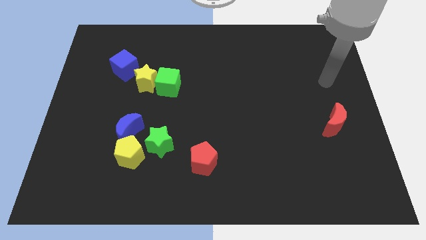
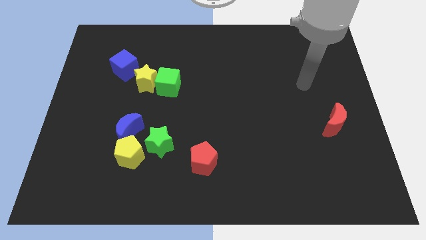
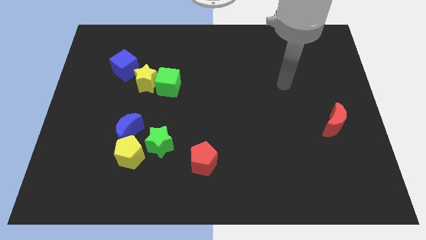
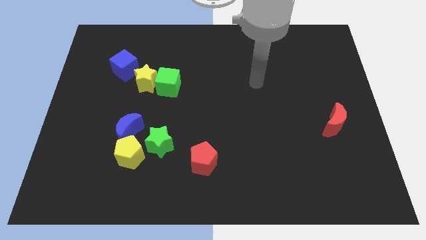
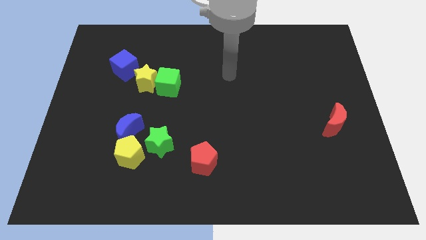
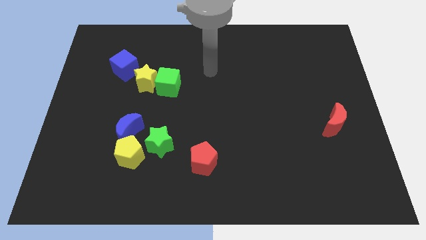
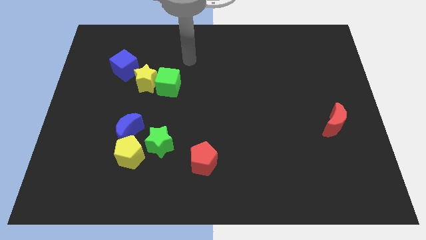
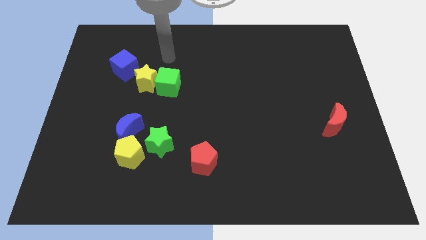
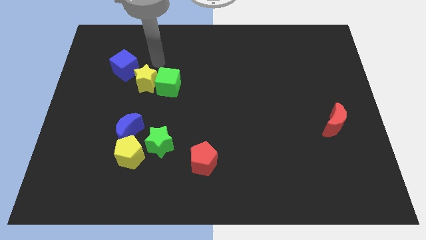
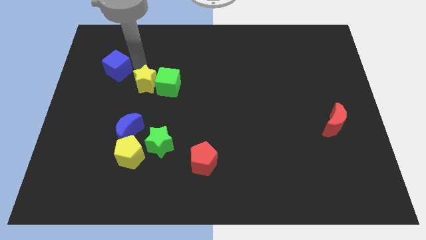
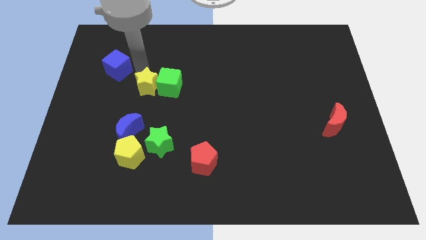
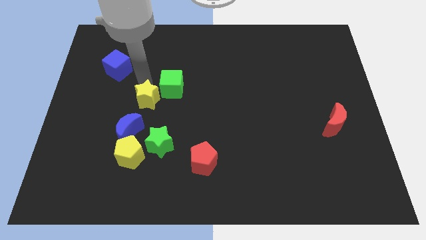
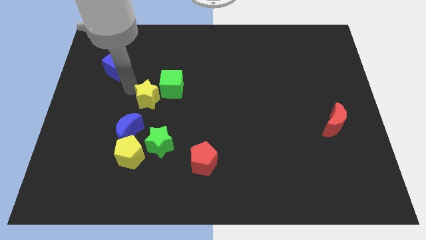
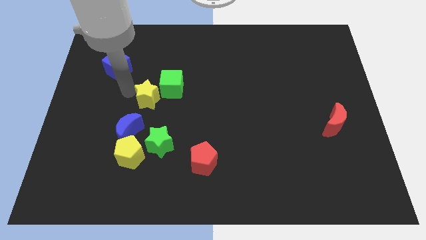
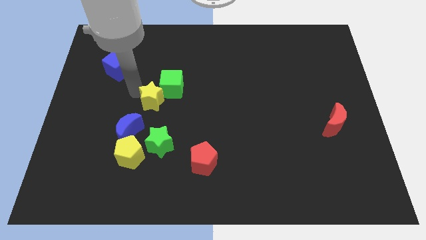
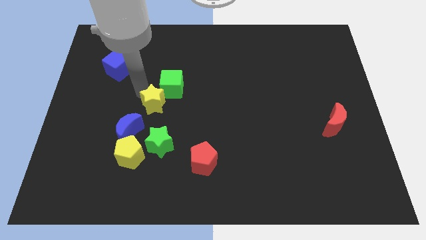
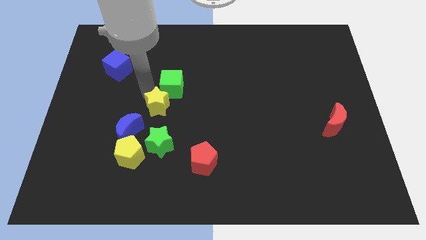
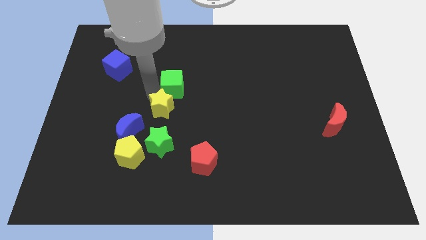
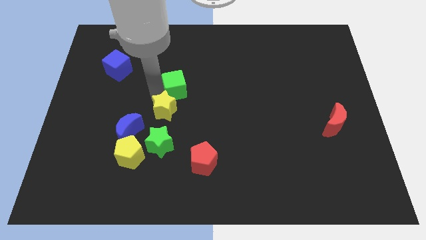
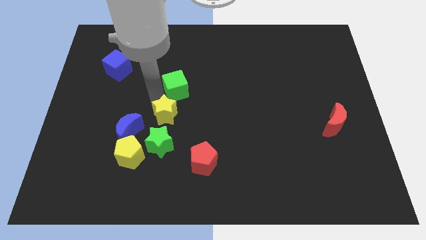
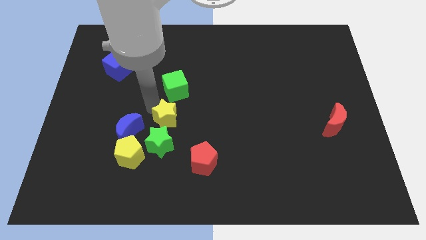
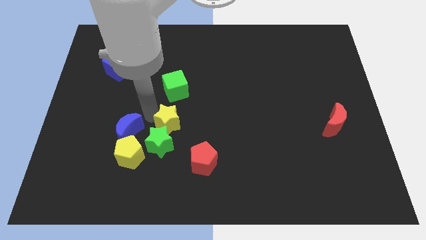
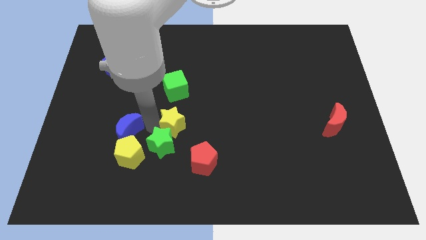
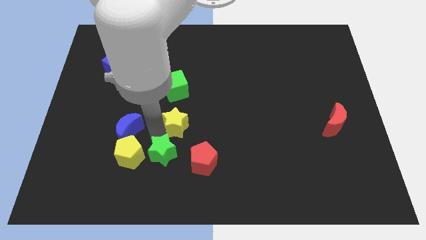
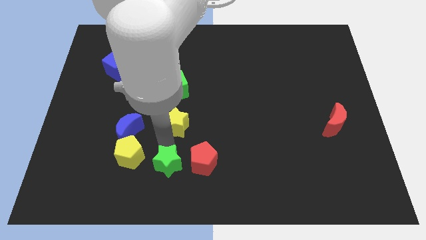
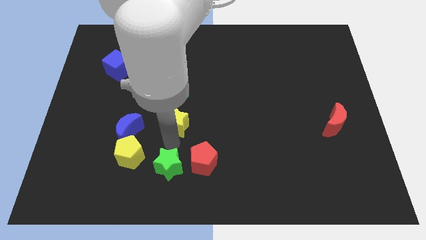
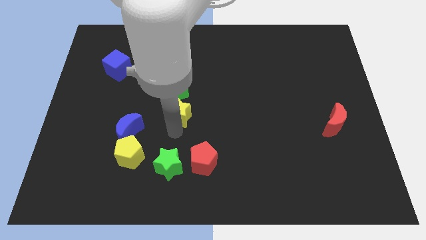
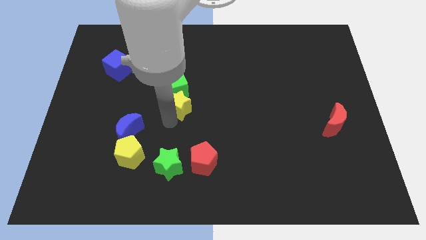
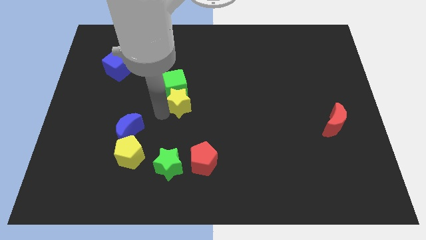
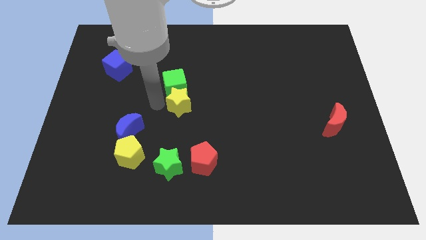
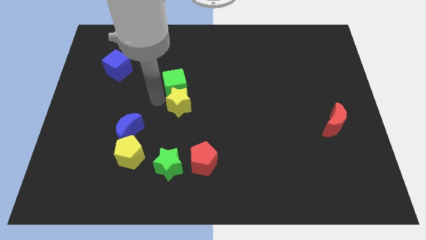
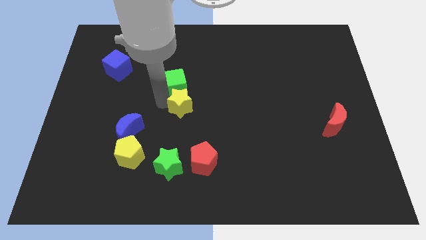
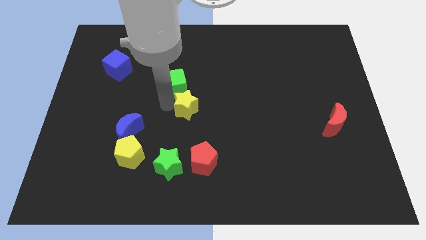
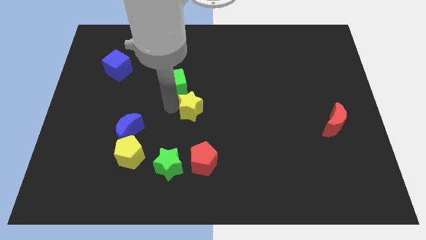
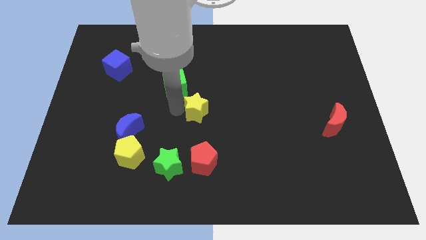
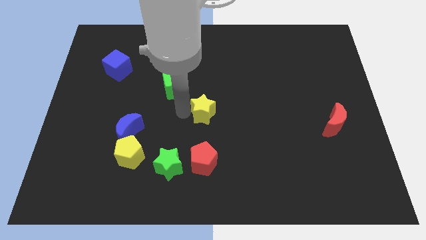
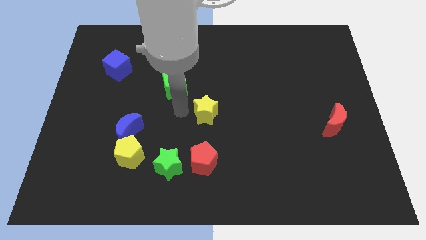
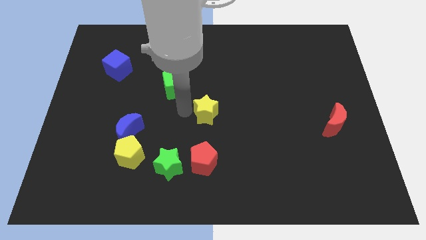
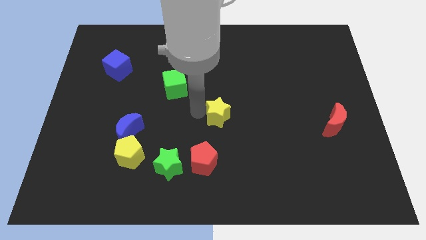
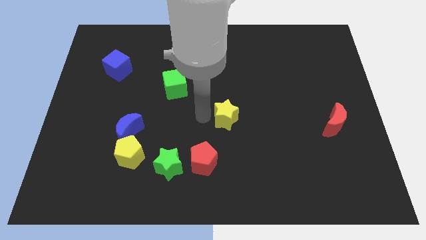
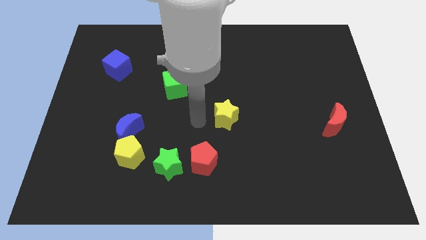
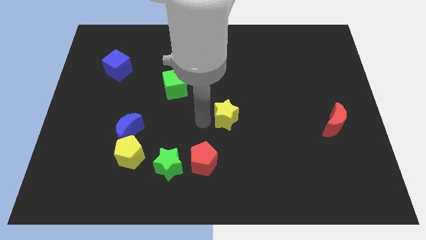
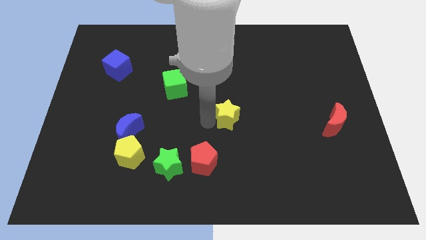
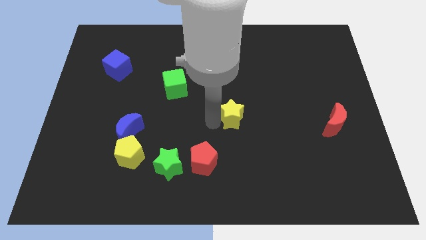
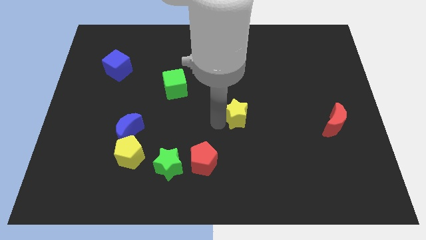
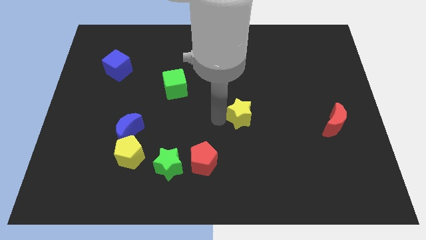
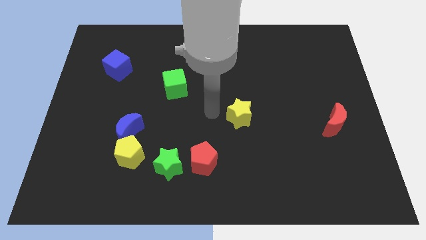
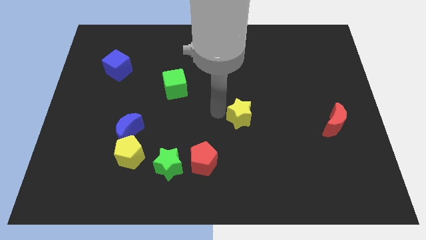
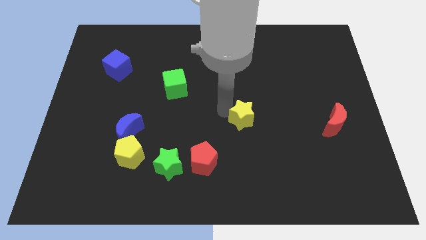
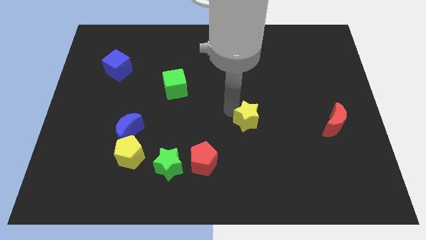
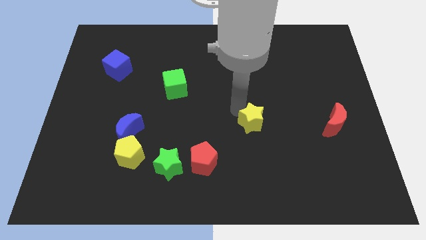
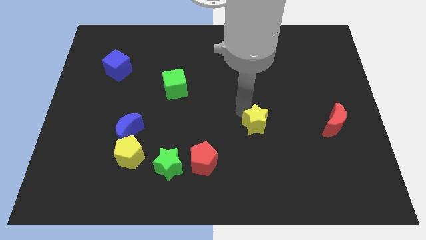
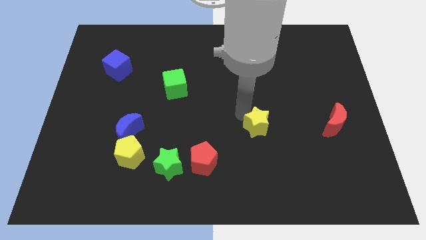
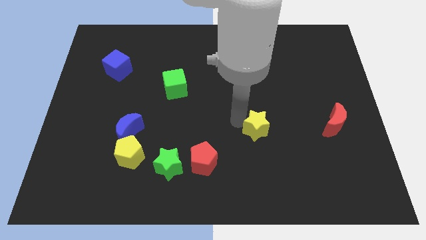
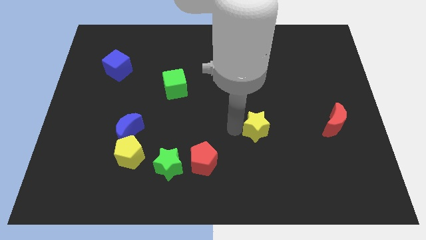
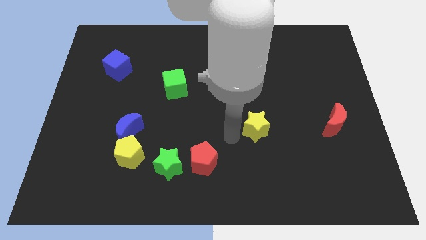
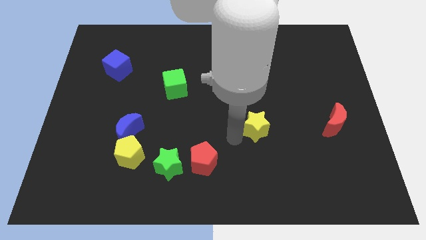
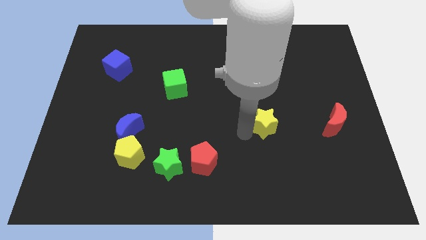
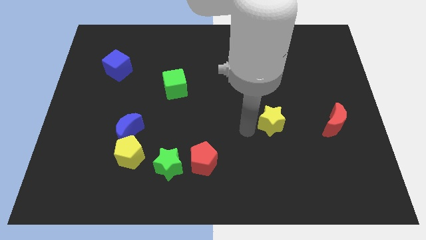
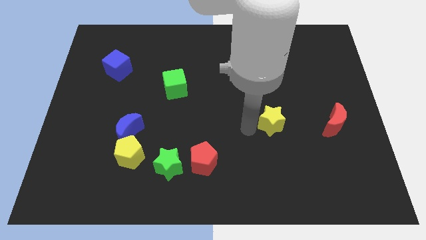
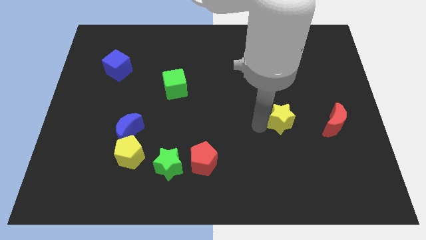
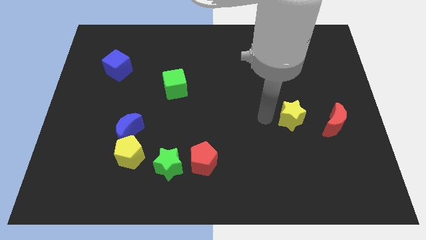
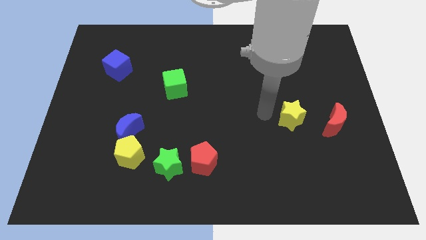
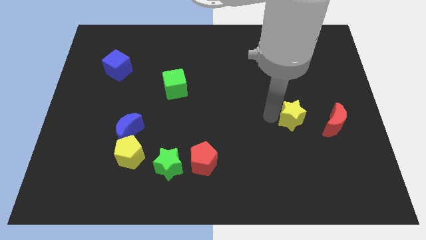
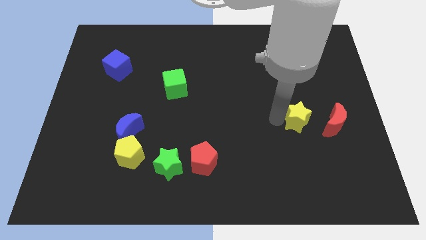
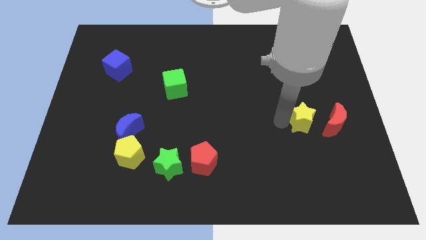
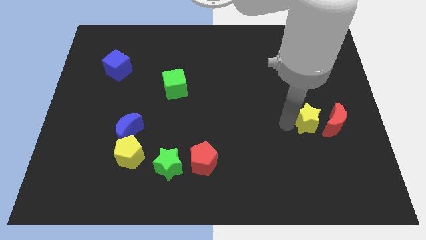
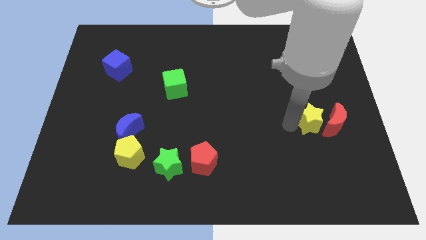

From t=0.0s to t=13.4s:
put the yellow star to the red moon
